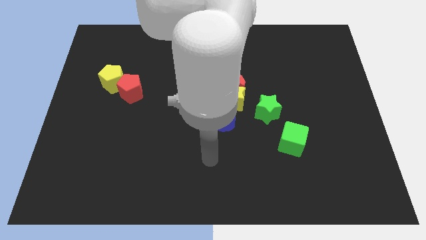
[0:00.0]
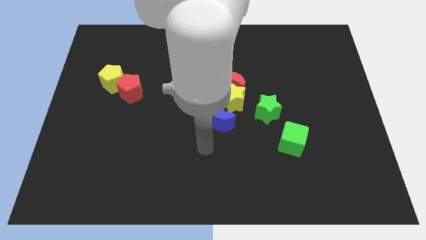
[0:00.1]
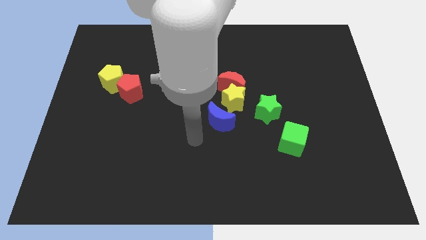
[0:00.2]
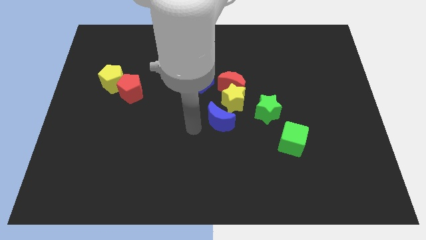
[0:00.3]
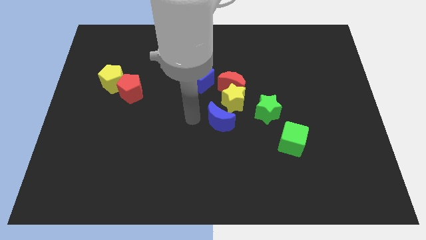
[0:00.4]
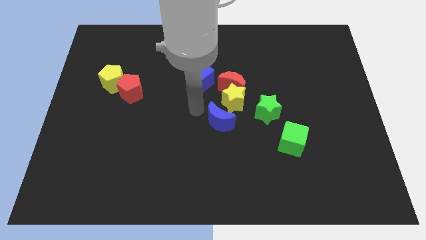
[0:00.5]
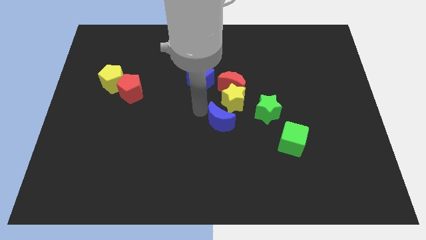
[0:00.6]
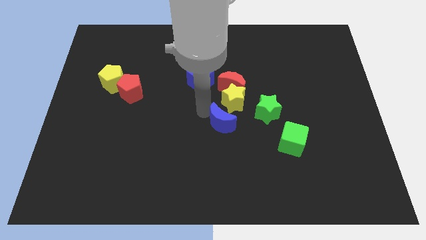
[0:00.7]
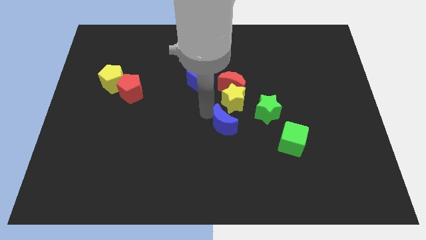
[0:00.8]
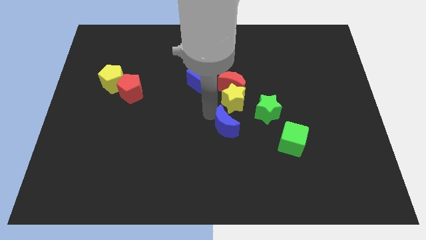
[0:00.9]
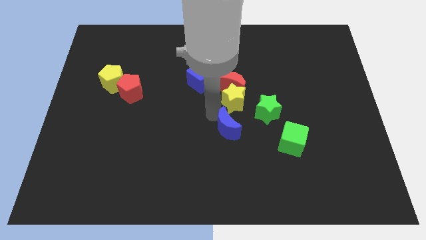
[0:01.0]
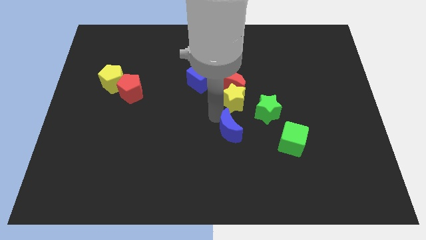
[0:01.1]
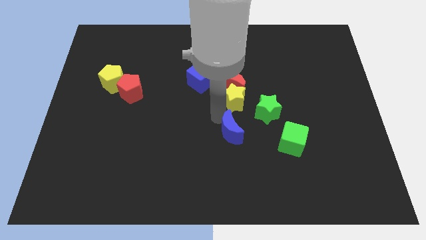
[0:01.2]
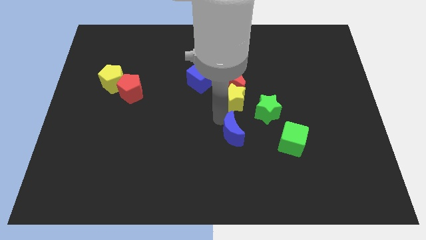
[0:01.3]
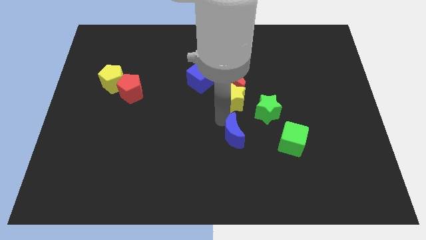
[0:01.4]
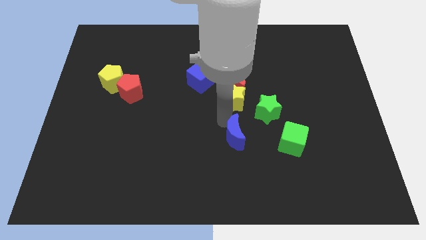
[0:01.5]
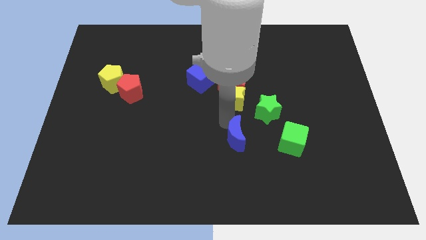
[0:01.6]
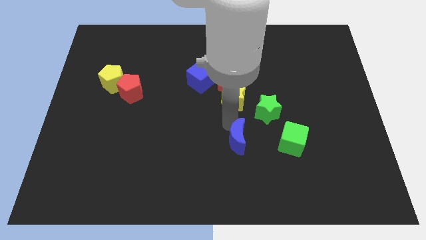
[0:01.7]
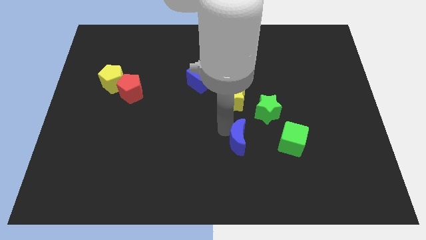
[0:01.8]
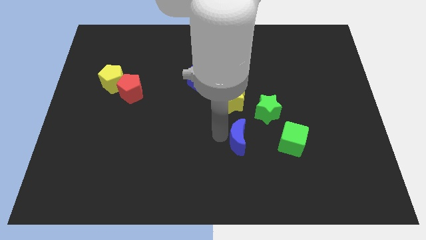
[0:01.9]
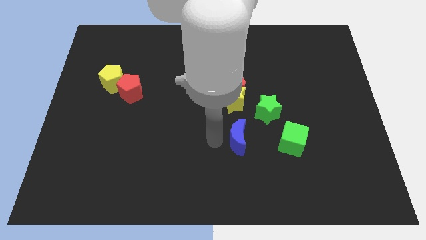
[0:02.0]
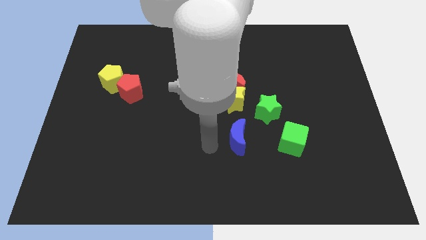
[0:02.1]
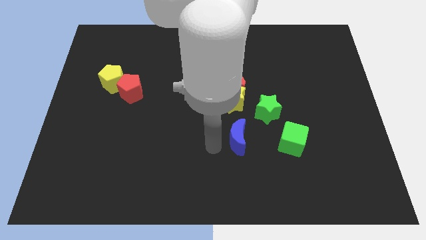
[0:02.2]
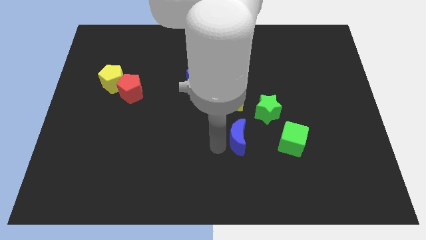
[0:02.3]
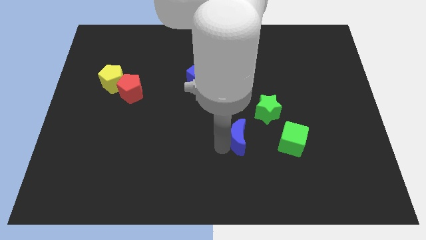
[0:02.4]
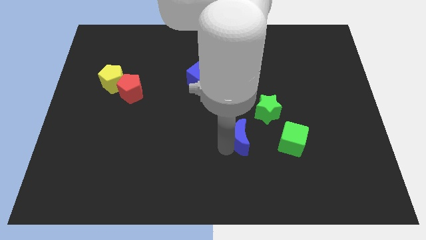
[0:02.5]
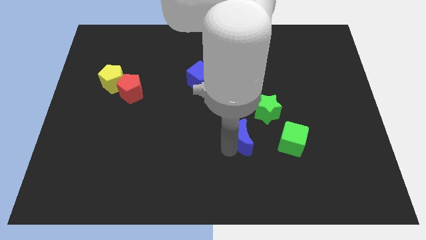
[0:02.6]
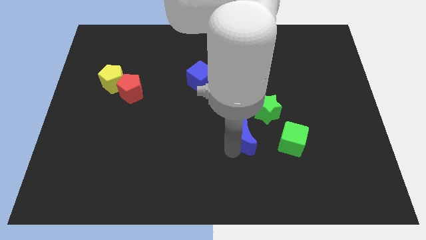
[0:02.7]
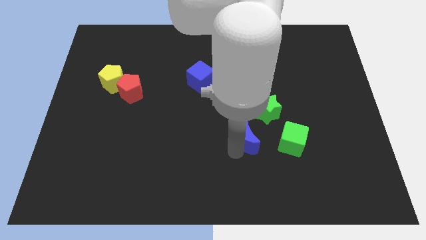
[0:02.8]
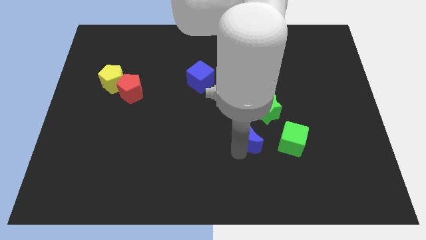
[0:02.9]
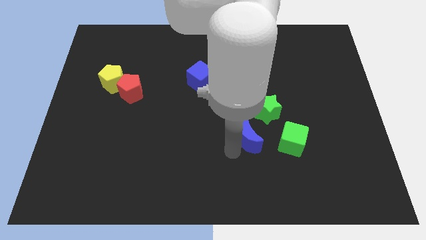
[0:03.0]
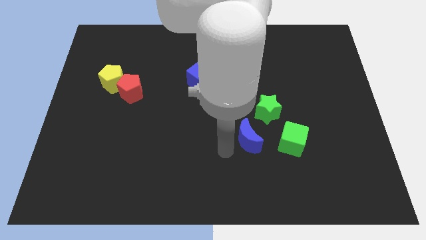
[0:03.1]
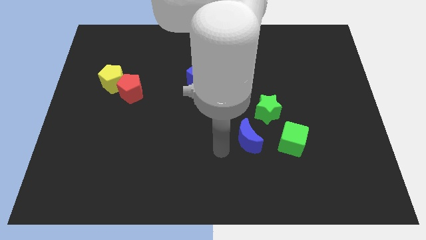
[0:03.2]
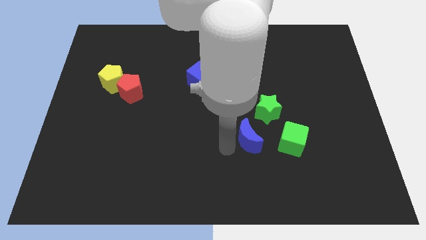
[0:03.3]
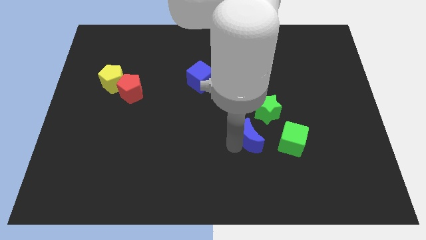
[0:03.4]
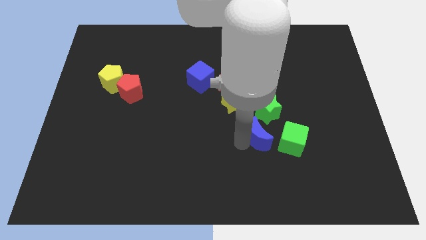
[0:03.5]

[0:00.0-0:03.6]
slightly move the blue moon to the right

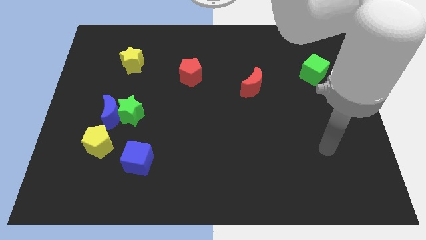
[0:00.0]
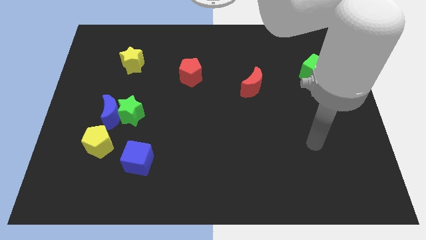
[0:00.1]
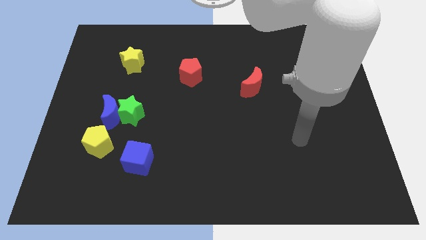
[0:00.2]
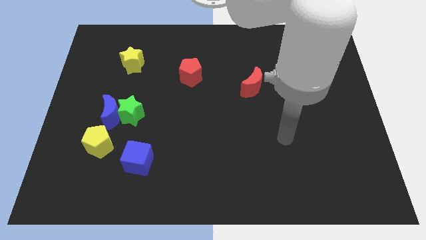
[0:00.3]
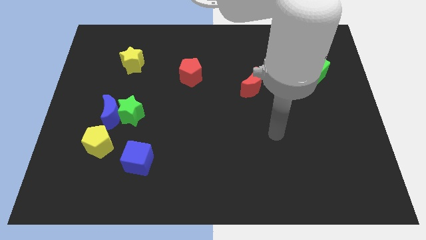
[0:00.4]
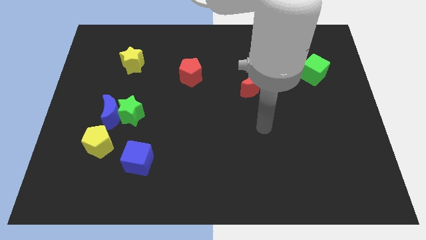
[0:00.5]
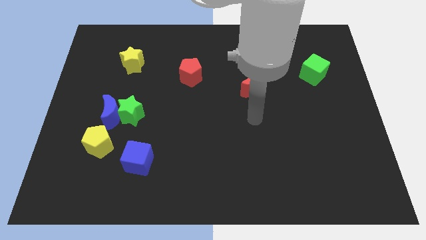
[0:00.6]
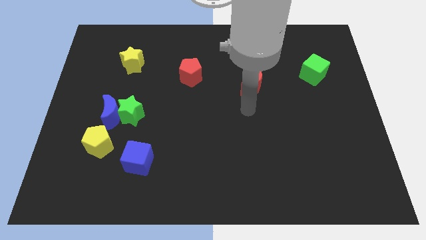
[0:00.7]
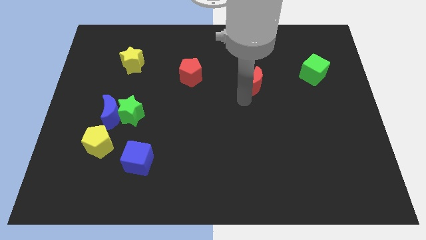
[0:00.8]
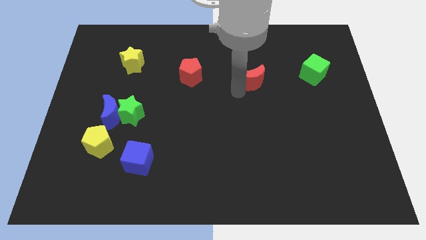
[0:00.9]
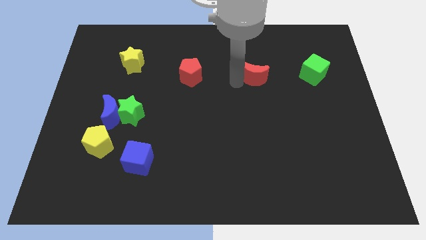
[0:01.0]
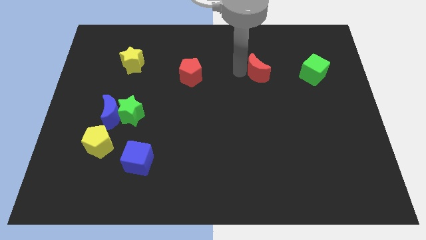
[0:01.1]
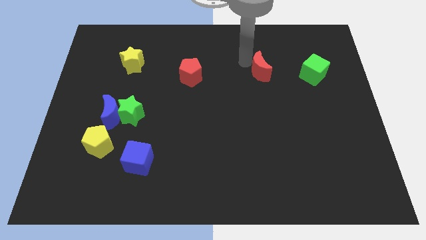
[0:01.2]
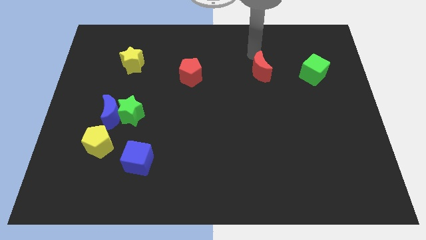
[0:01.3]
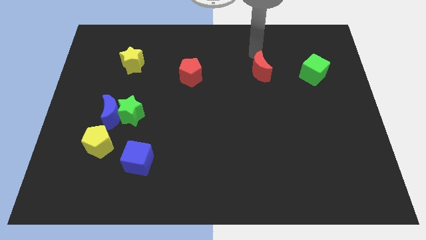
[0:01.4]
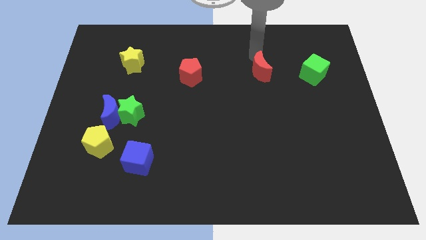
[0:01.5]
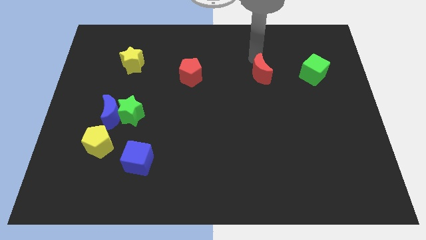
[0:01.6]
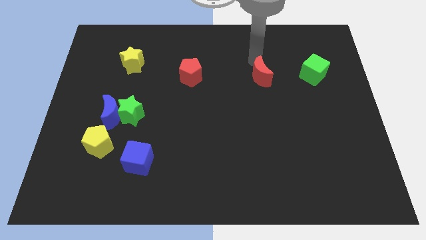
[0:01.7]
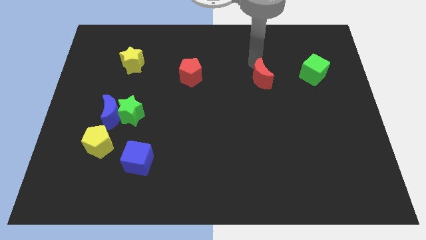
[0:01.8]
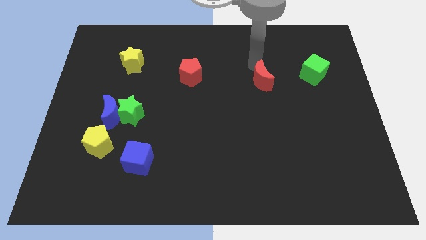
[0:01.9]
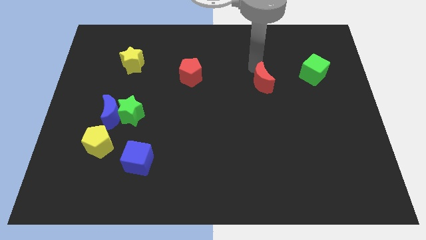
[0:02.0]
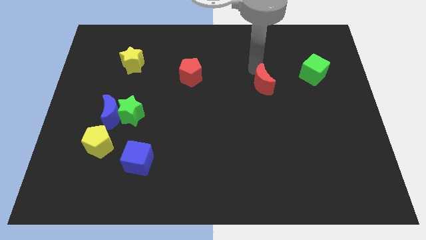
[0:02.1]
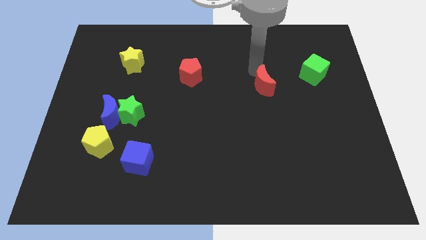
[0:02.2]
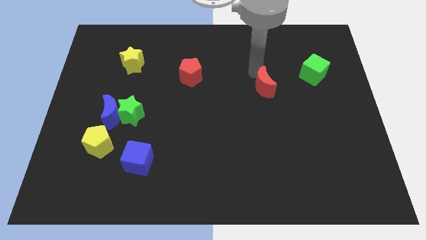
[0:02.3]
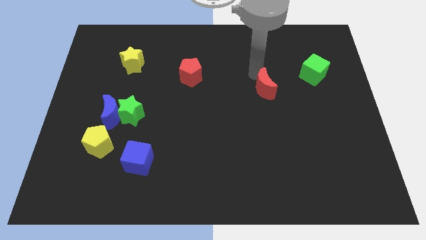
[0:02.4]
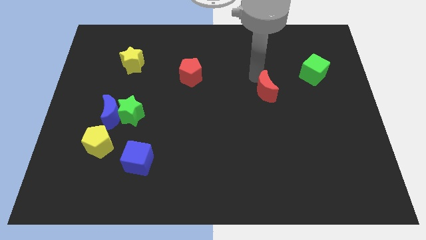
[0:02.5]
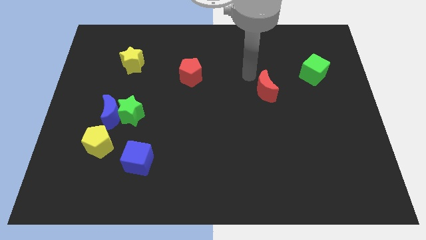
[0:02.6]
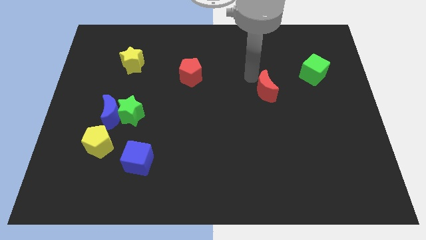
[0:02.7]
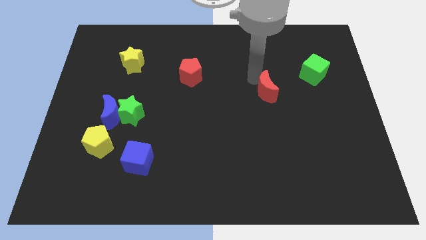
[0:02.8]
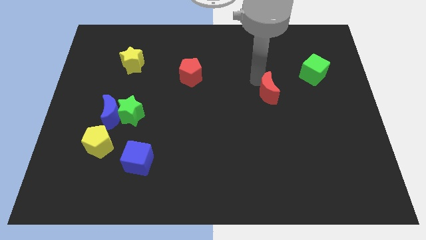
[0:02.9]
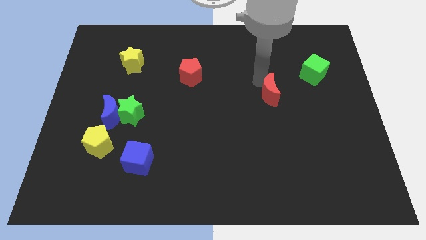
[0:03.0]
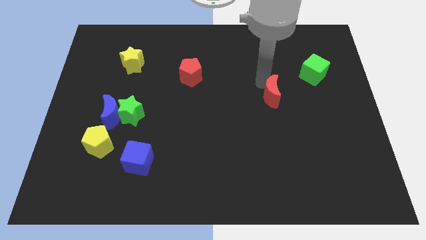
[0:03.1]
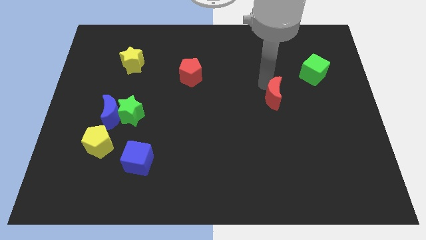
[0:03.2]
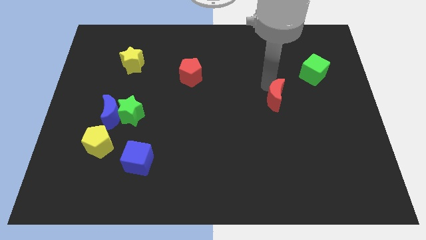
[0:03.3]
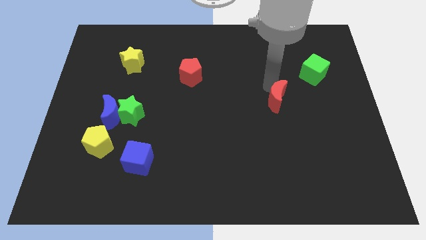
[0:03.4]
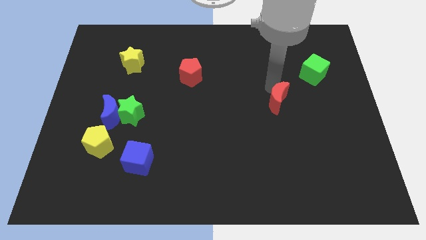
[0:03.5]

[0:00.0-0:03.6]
move the red moon down and then right a little bit

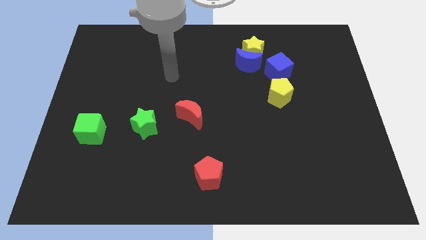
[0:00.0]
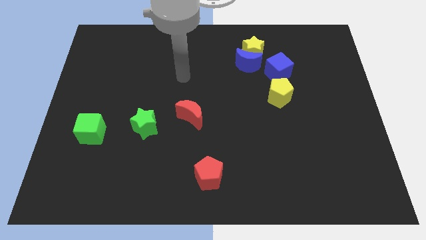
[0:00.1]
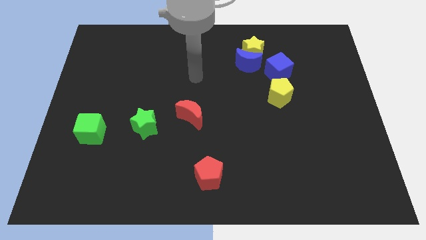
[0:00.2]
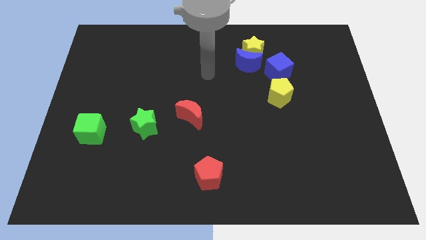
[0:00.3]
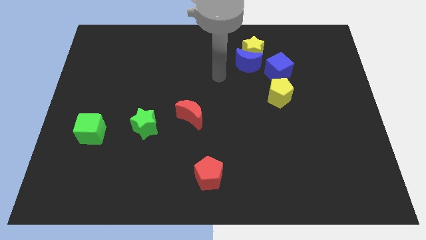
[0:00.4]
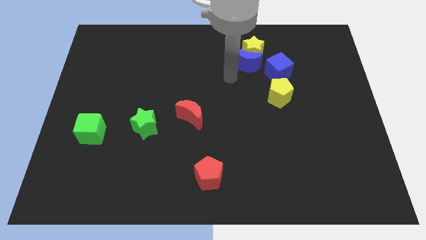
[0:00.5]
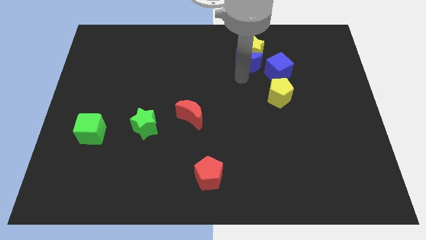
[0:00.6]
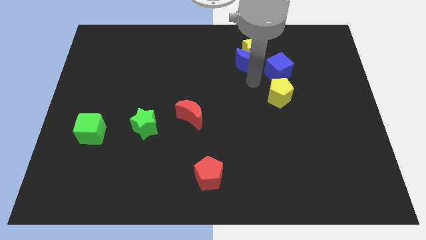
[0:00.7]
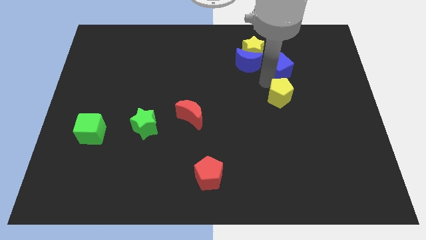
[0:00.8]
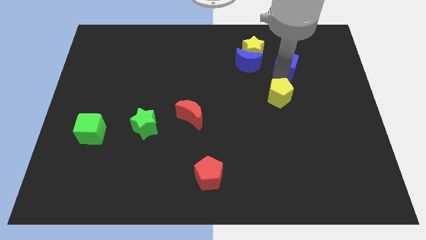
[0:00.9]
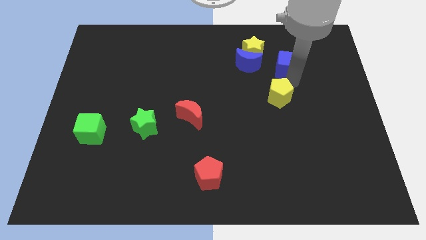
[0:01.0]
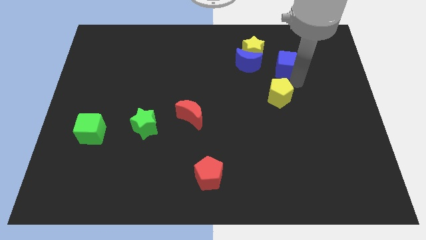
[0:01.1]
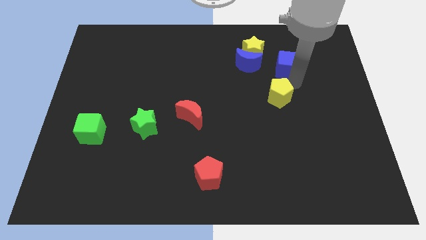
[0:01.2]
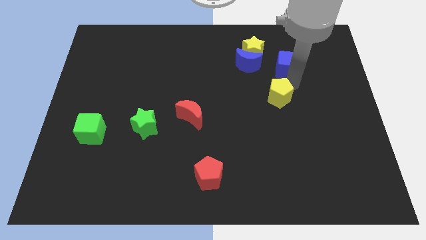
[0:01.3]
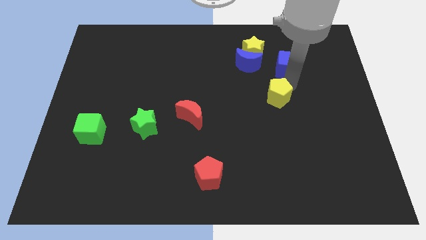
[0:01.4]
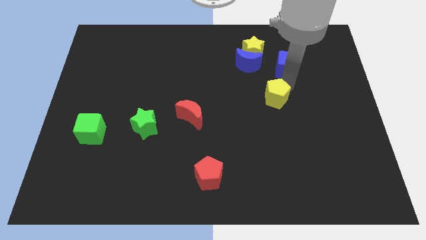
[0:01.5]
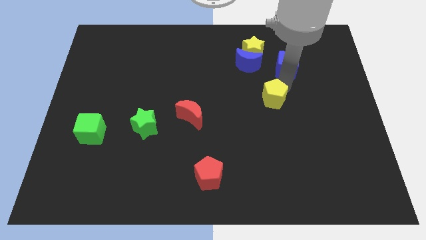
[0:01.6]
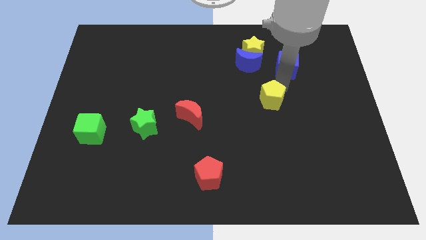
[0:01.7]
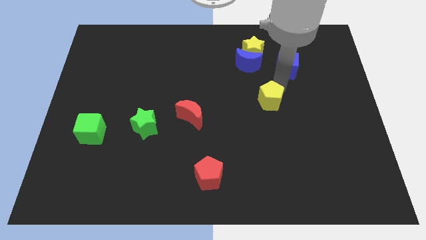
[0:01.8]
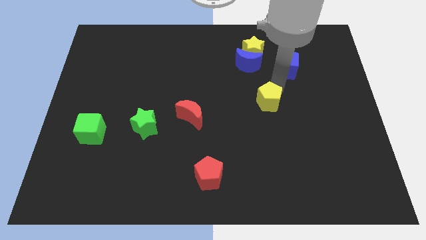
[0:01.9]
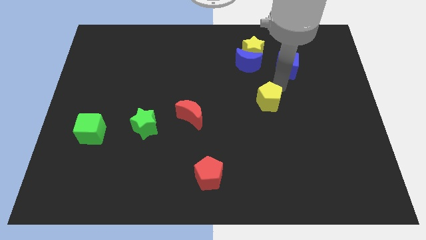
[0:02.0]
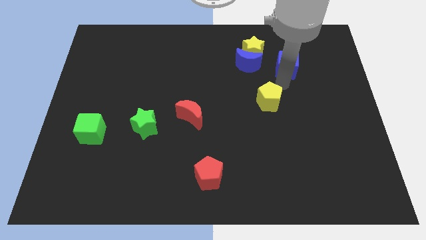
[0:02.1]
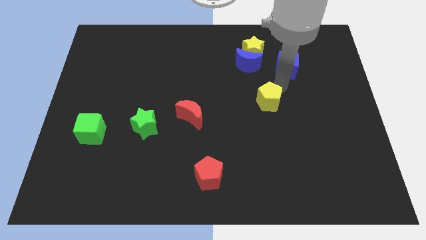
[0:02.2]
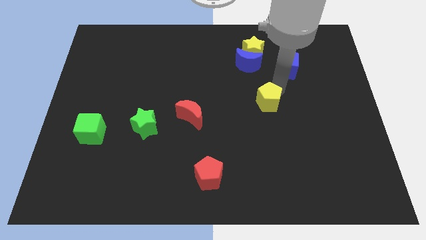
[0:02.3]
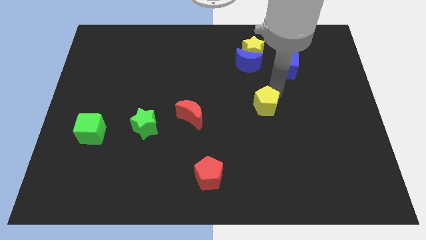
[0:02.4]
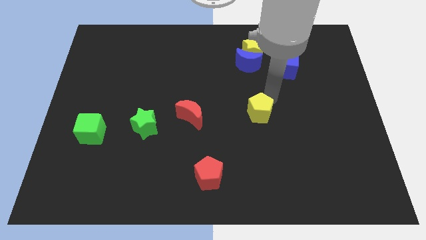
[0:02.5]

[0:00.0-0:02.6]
slightly move the yellow pentagon down and left
